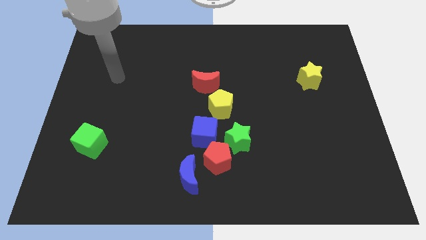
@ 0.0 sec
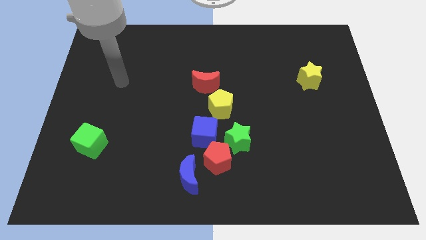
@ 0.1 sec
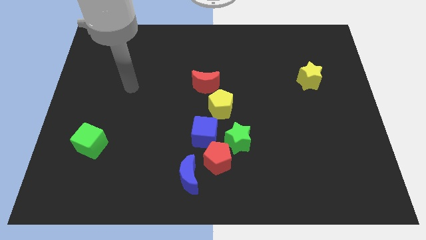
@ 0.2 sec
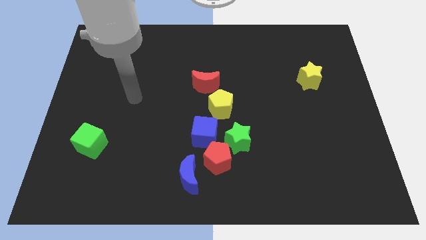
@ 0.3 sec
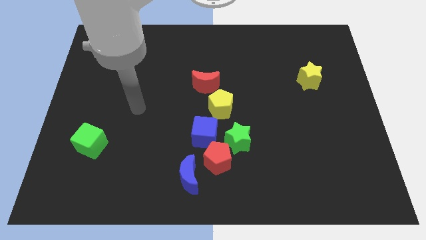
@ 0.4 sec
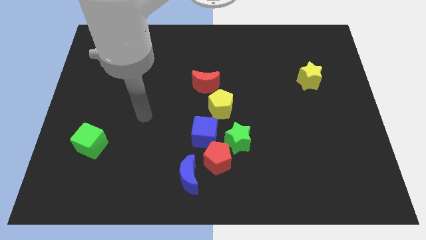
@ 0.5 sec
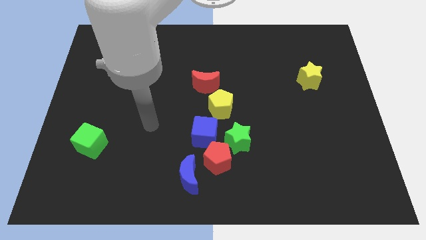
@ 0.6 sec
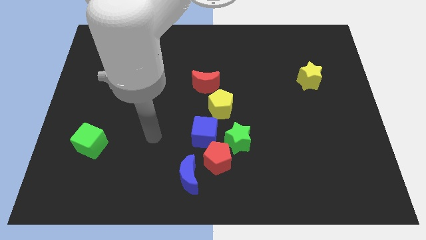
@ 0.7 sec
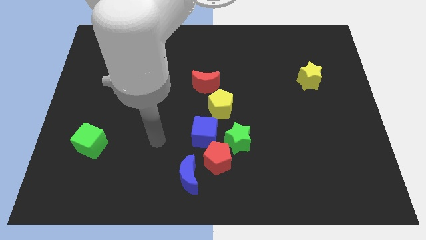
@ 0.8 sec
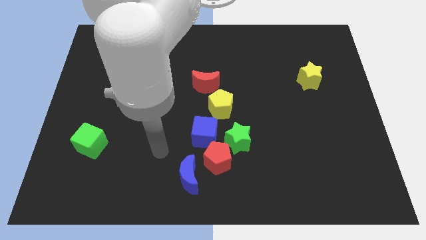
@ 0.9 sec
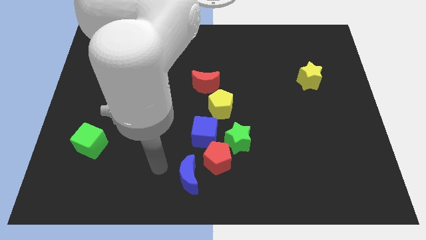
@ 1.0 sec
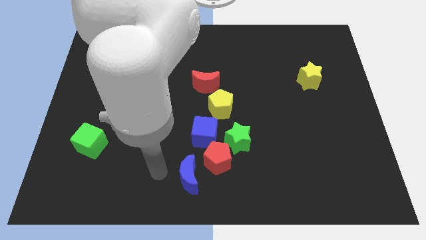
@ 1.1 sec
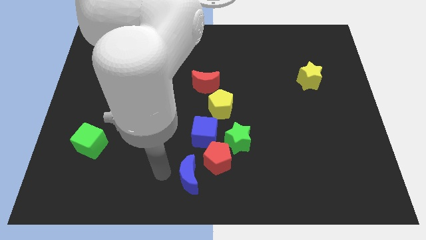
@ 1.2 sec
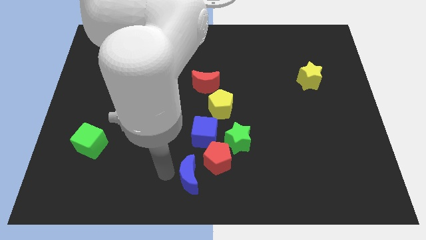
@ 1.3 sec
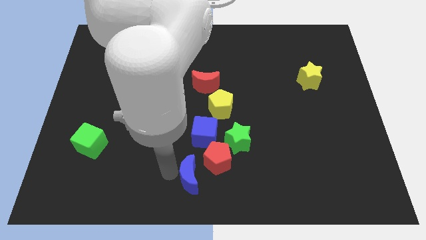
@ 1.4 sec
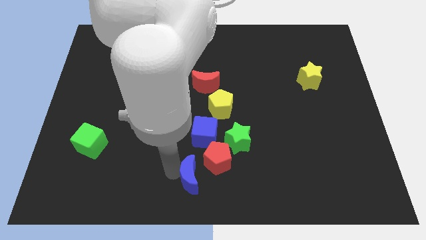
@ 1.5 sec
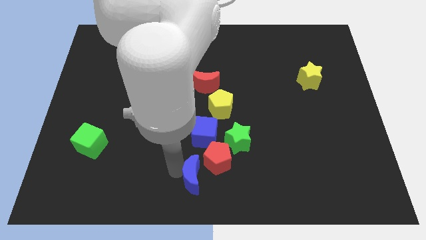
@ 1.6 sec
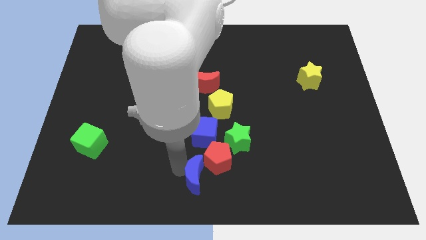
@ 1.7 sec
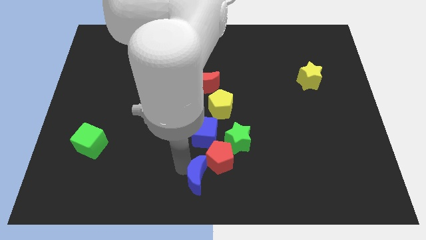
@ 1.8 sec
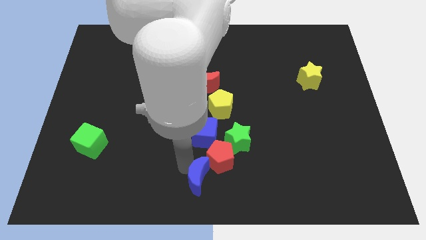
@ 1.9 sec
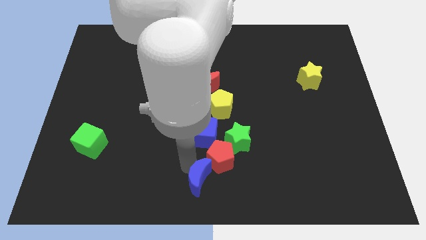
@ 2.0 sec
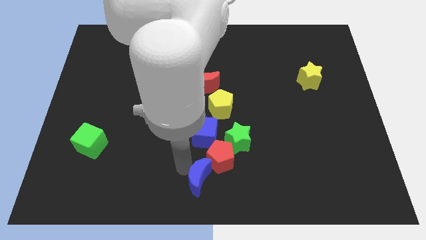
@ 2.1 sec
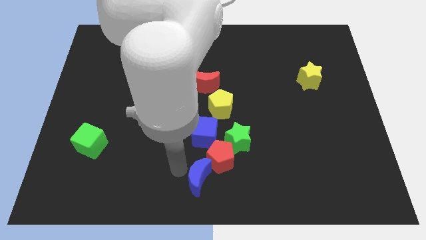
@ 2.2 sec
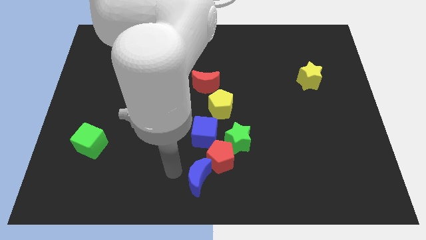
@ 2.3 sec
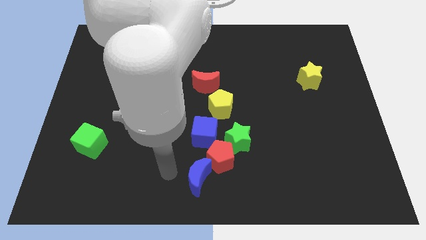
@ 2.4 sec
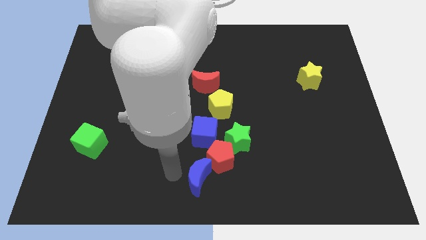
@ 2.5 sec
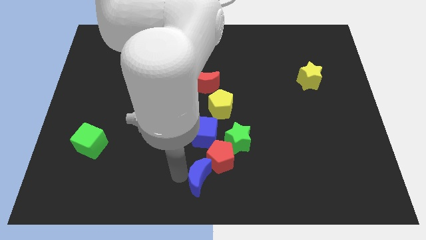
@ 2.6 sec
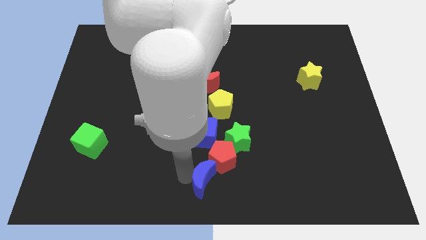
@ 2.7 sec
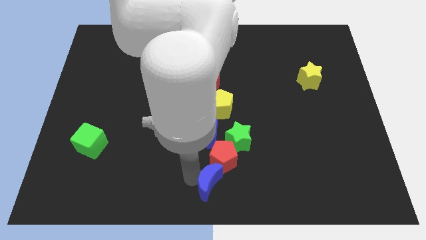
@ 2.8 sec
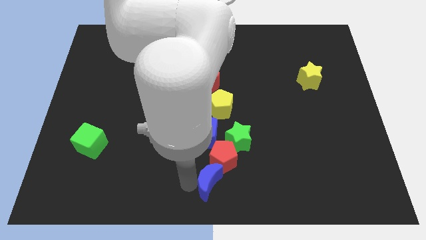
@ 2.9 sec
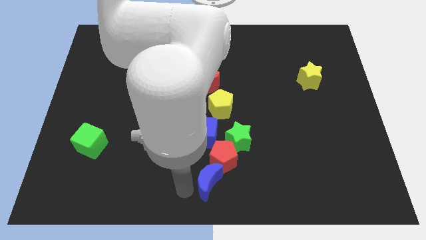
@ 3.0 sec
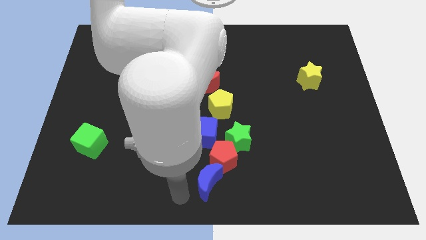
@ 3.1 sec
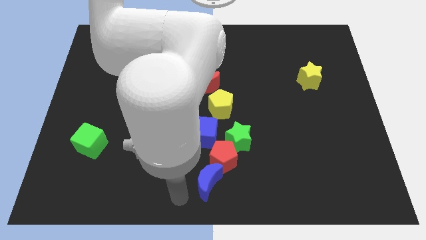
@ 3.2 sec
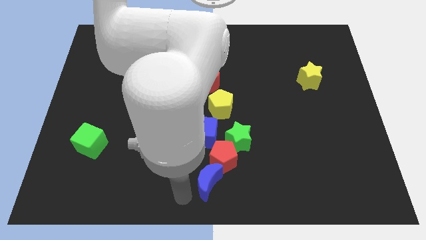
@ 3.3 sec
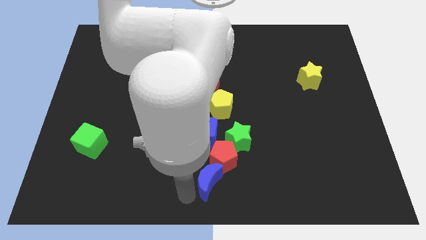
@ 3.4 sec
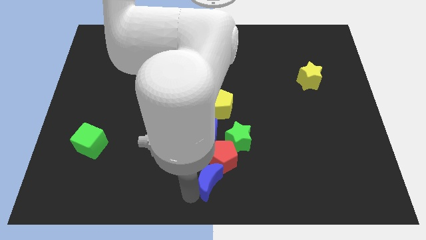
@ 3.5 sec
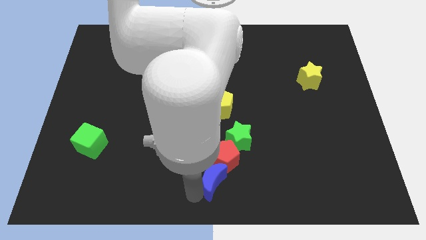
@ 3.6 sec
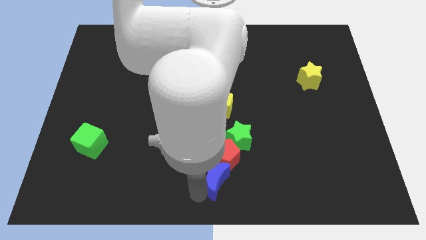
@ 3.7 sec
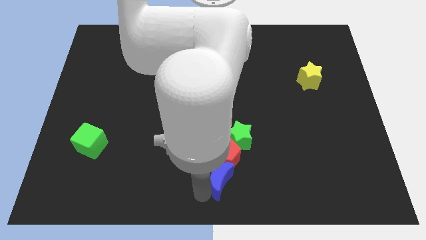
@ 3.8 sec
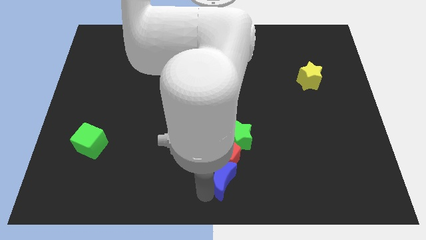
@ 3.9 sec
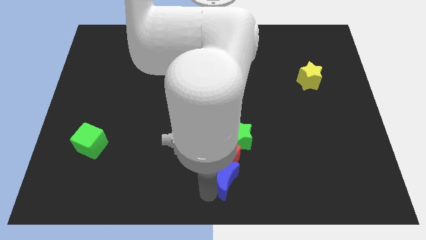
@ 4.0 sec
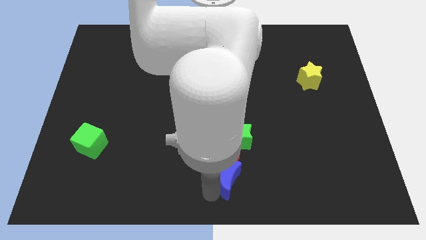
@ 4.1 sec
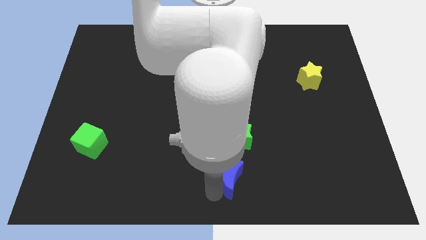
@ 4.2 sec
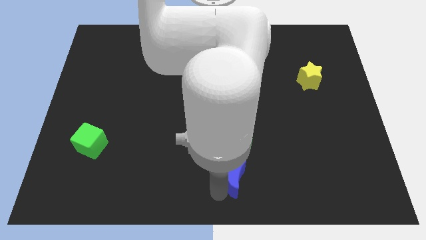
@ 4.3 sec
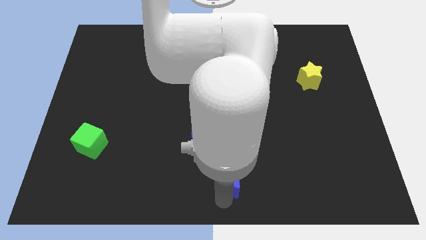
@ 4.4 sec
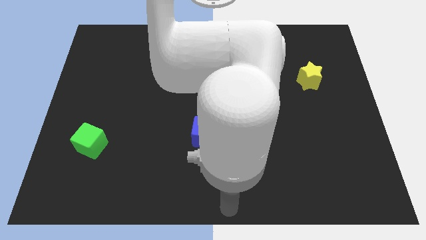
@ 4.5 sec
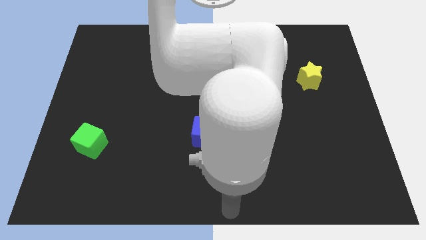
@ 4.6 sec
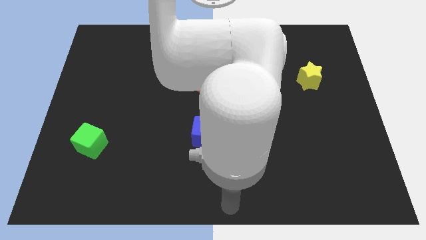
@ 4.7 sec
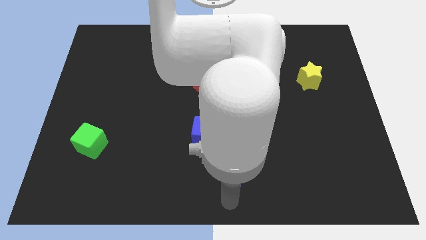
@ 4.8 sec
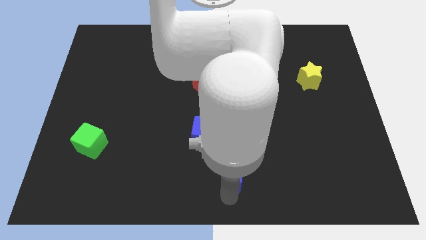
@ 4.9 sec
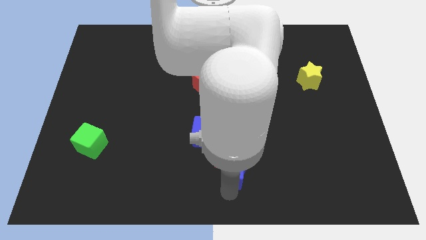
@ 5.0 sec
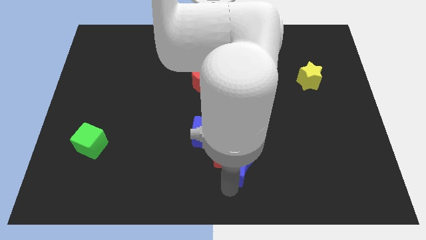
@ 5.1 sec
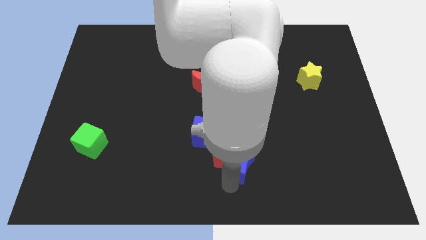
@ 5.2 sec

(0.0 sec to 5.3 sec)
put the blue moon close to the green star

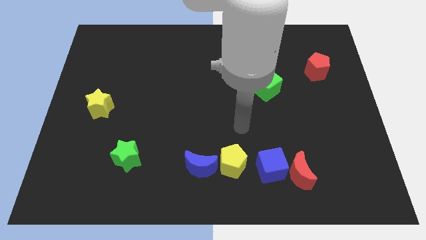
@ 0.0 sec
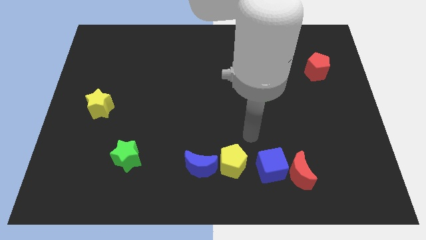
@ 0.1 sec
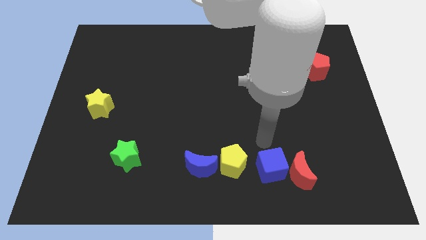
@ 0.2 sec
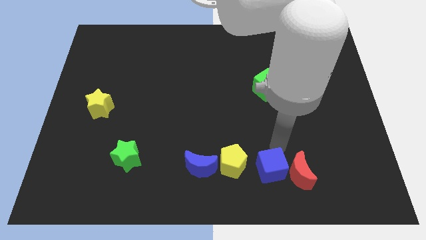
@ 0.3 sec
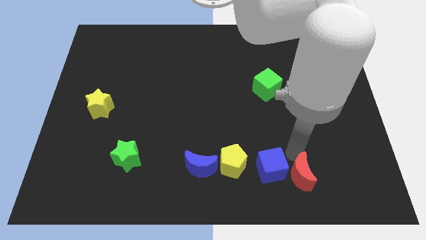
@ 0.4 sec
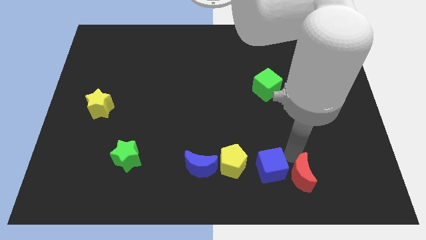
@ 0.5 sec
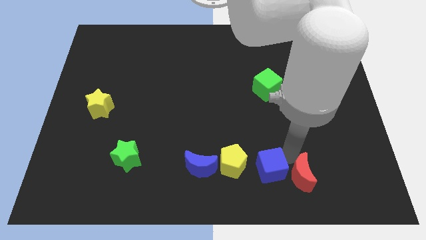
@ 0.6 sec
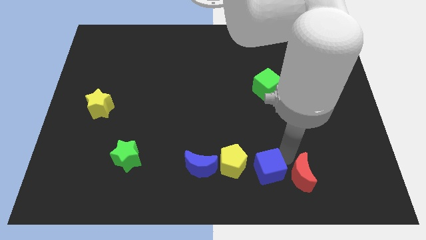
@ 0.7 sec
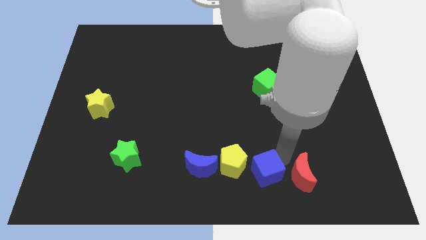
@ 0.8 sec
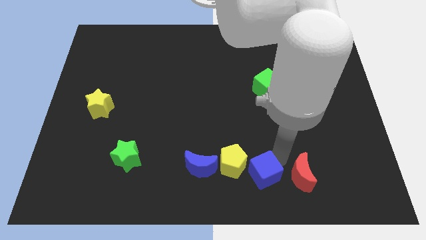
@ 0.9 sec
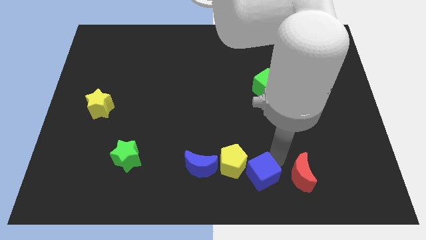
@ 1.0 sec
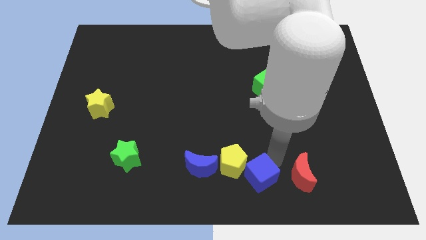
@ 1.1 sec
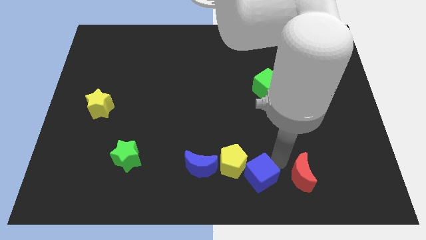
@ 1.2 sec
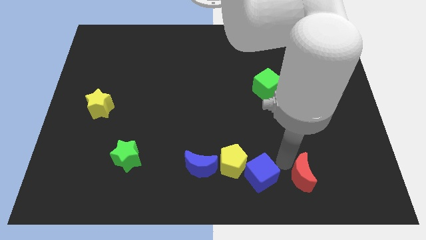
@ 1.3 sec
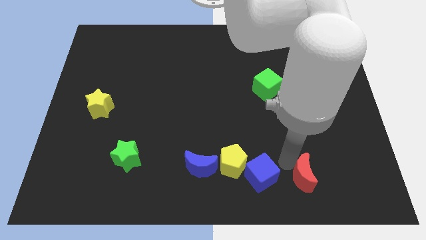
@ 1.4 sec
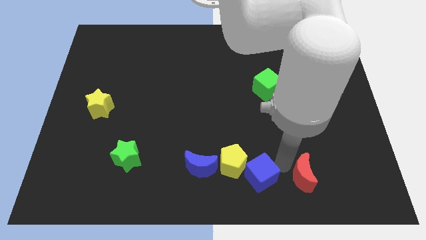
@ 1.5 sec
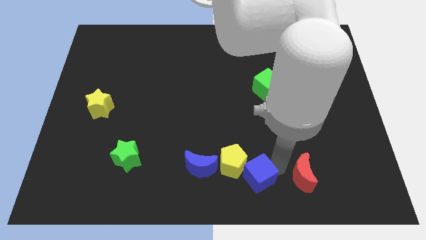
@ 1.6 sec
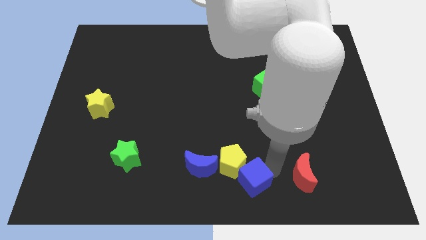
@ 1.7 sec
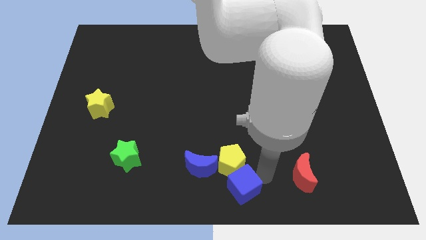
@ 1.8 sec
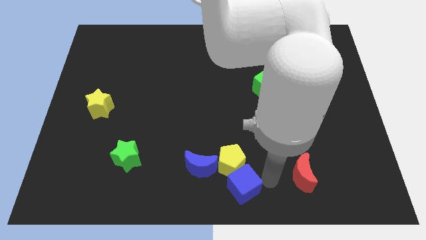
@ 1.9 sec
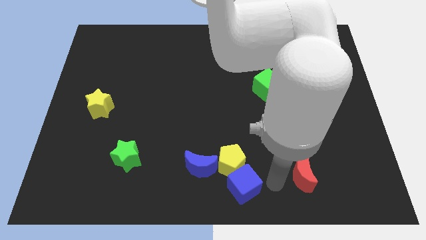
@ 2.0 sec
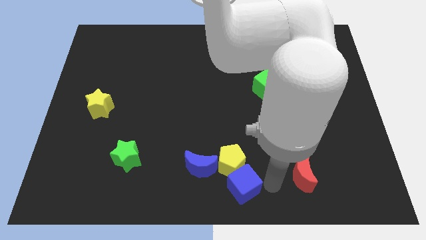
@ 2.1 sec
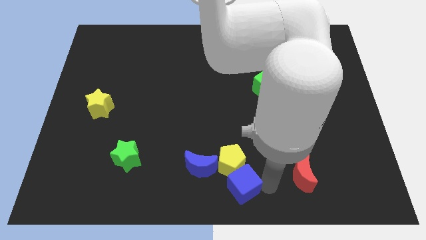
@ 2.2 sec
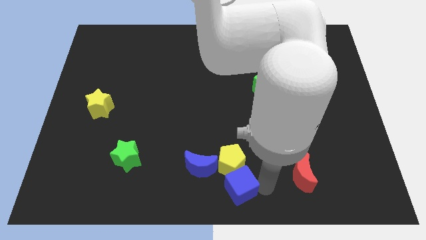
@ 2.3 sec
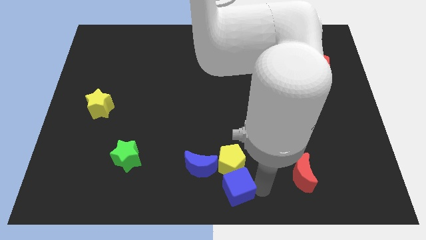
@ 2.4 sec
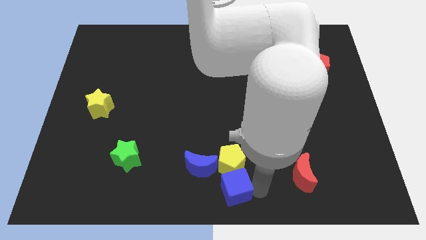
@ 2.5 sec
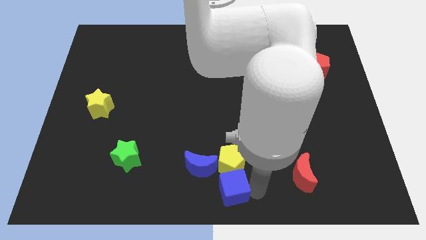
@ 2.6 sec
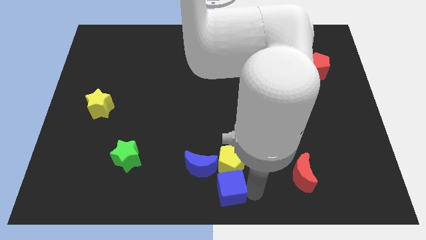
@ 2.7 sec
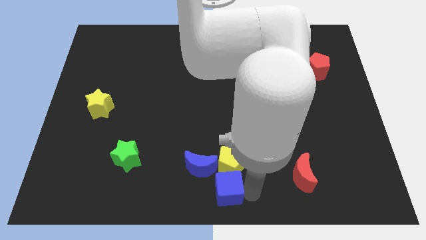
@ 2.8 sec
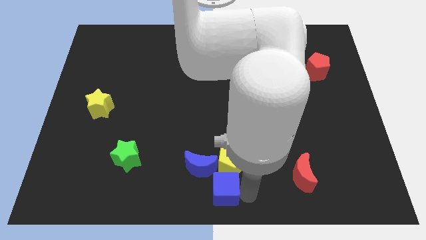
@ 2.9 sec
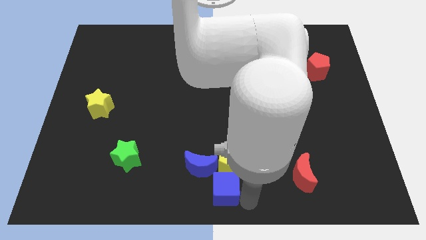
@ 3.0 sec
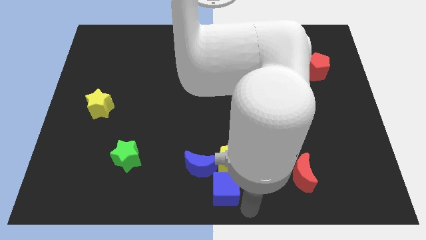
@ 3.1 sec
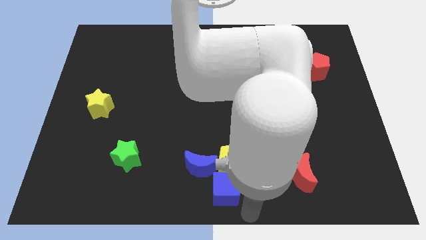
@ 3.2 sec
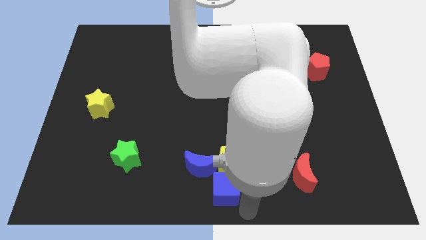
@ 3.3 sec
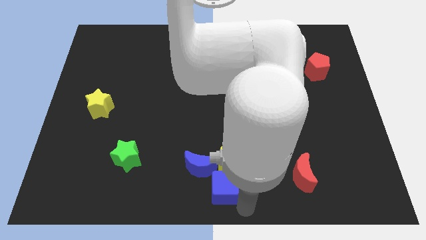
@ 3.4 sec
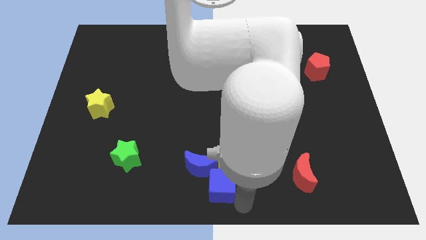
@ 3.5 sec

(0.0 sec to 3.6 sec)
move the blue cube towards the blue moon
